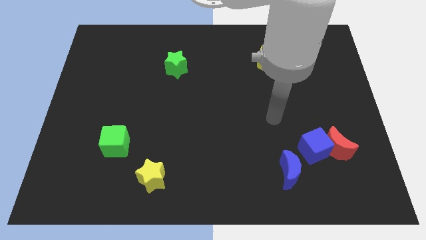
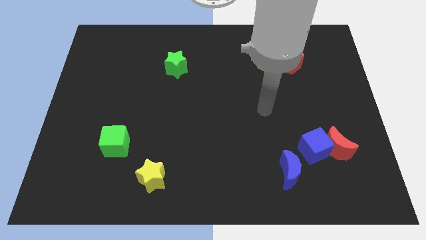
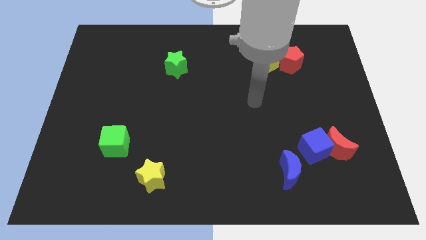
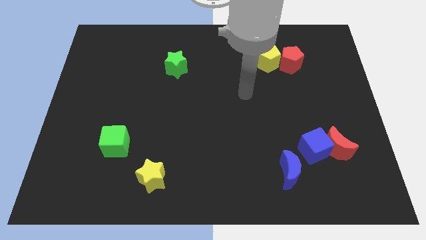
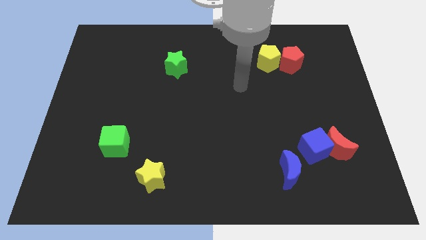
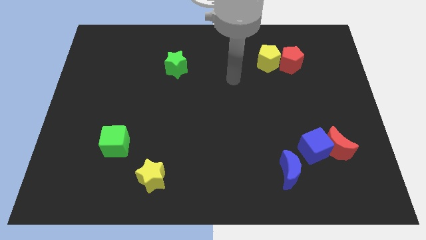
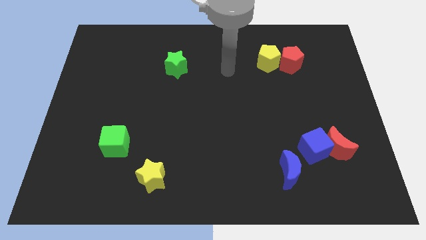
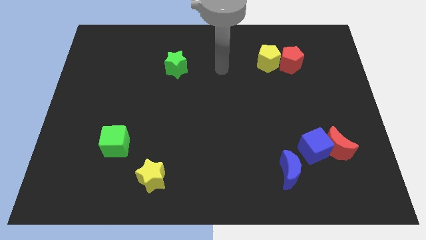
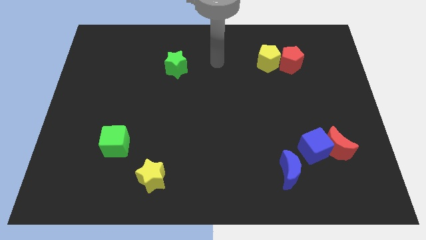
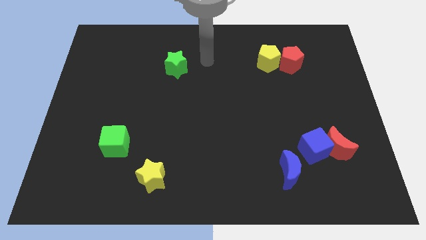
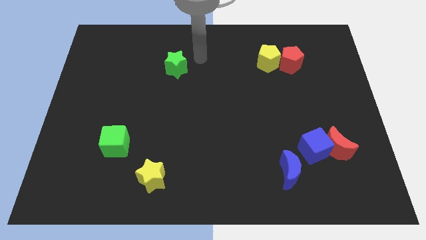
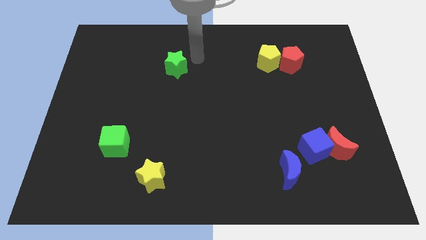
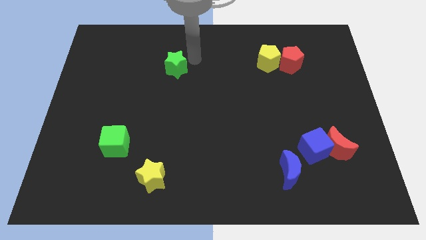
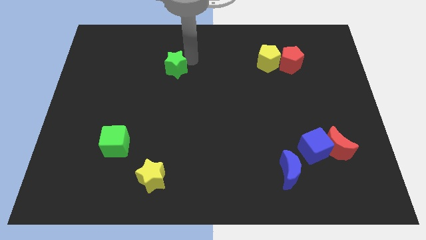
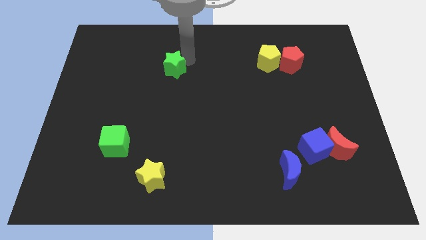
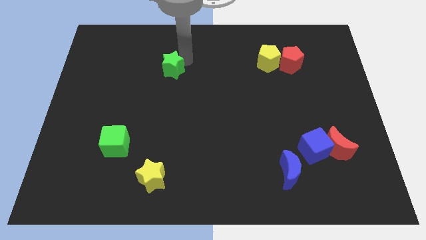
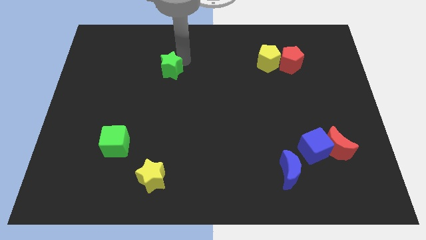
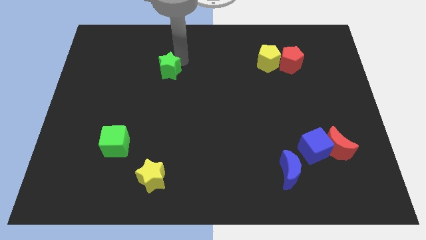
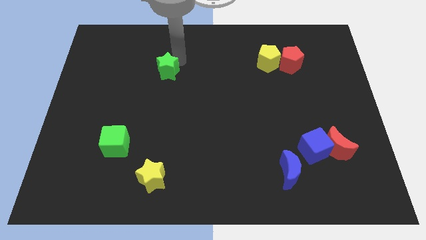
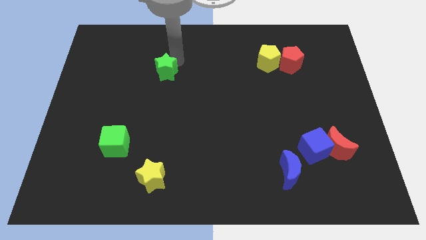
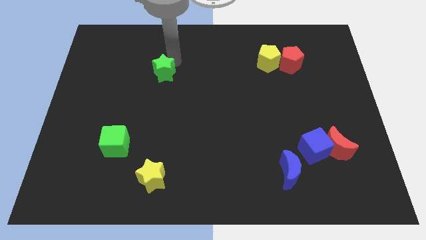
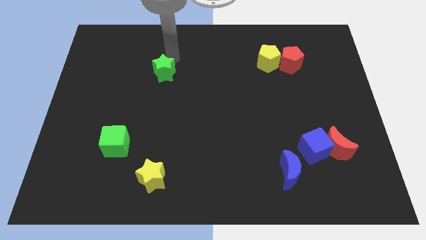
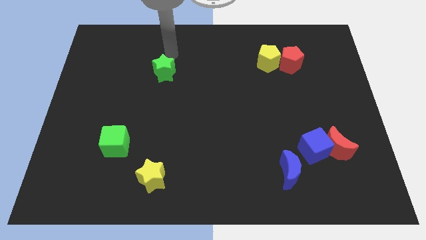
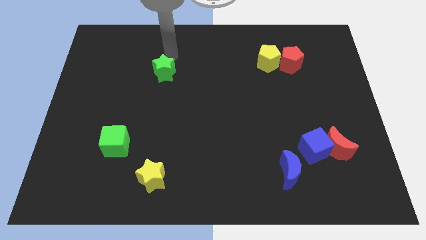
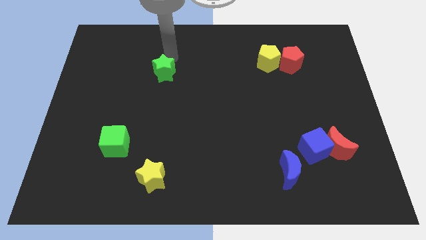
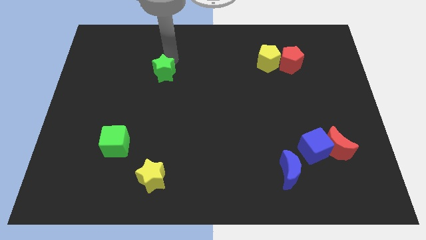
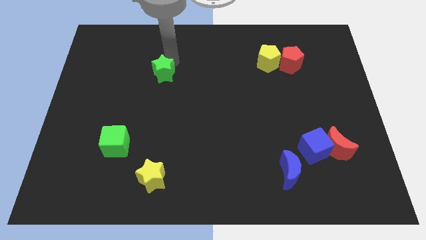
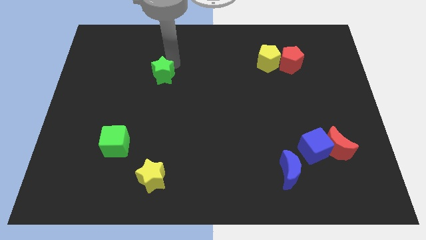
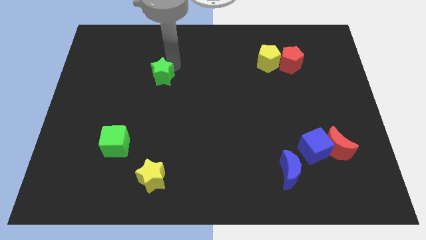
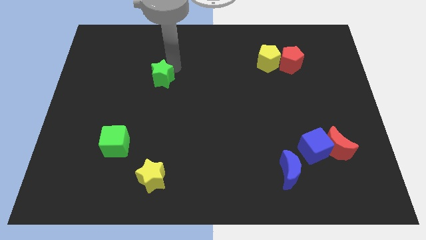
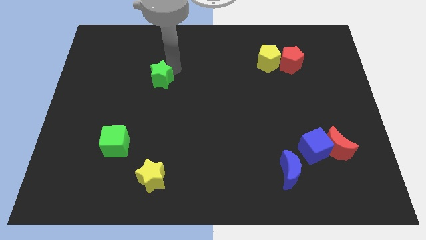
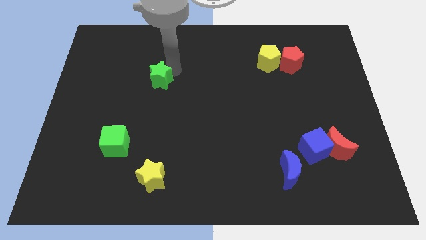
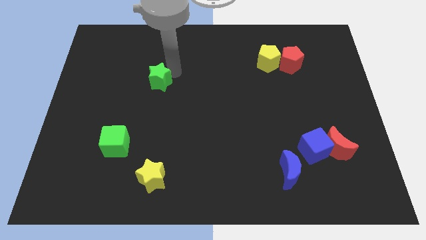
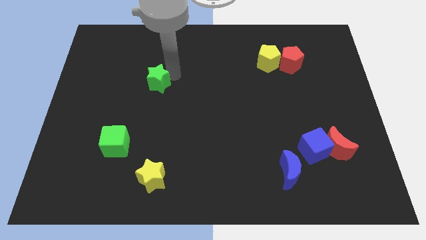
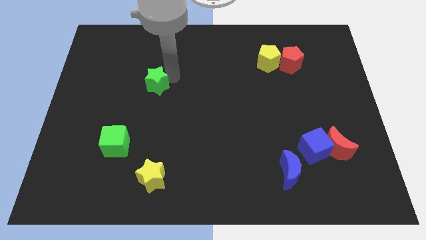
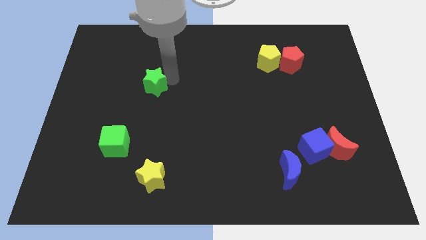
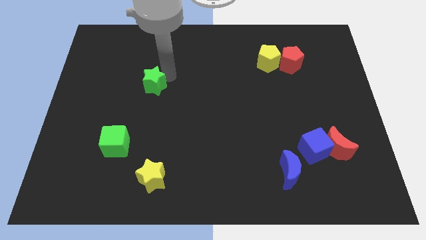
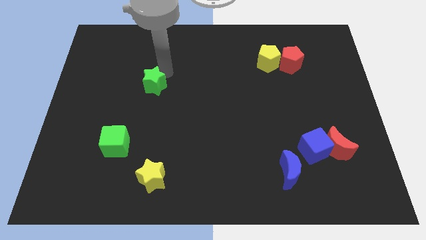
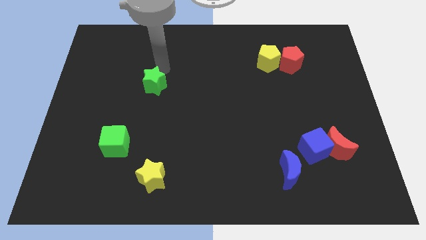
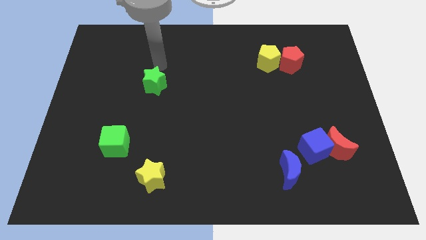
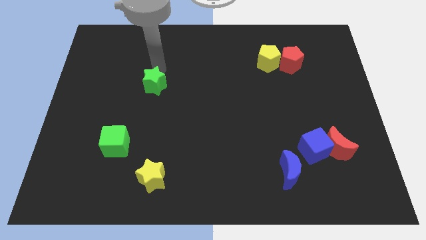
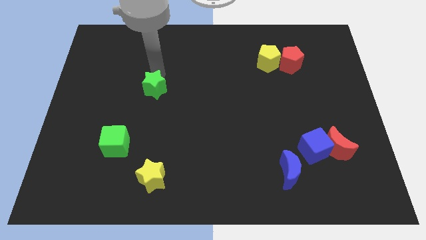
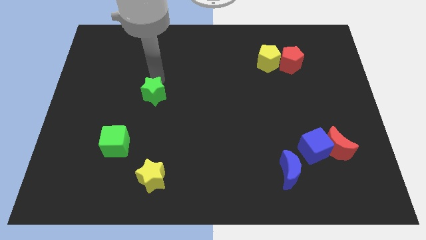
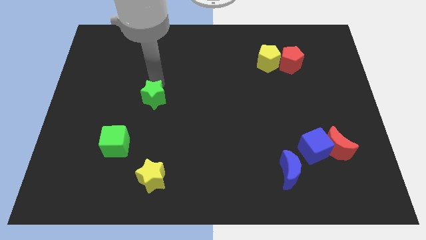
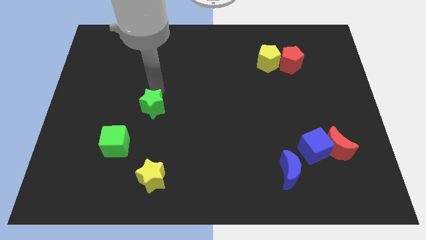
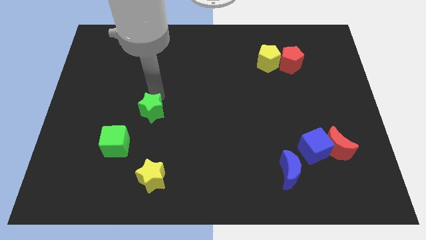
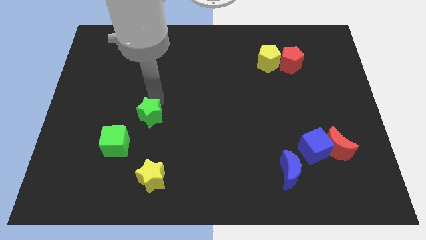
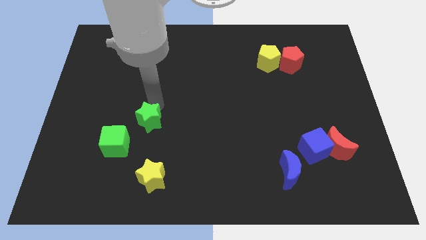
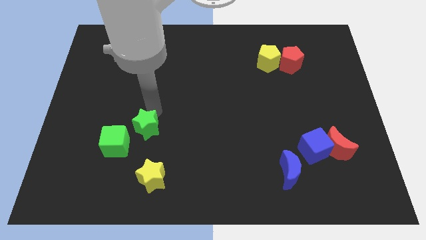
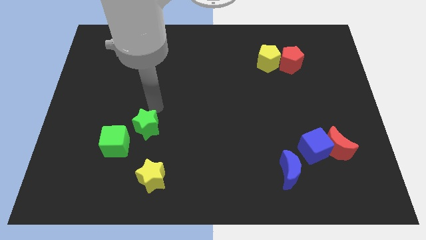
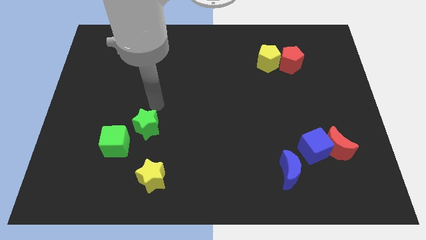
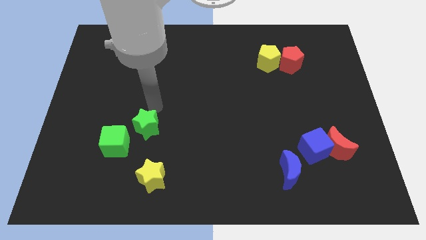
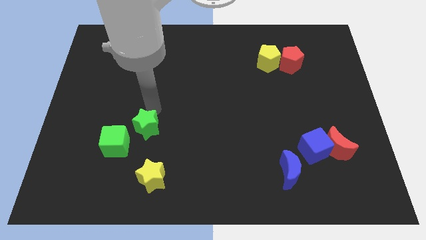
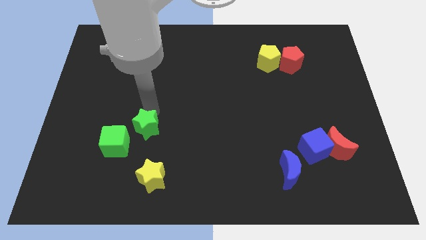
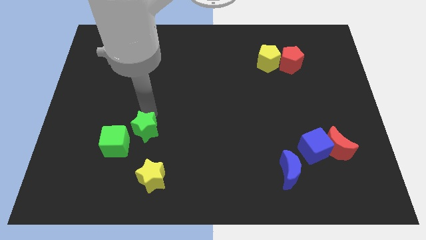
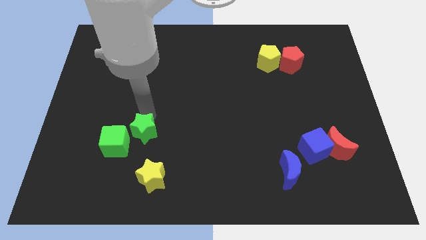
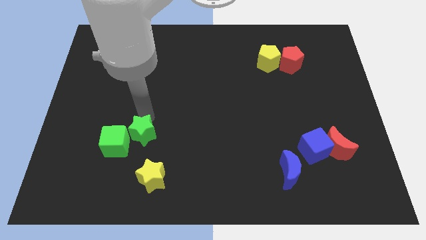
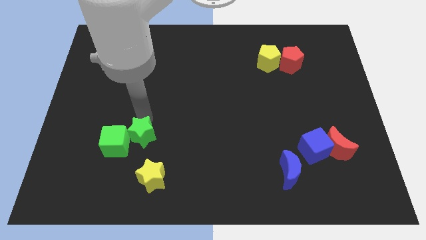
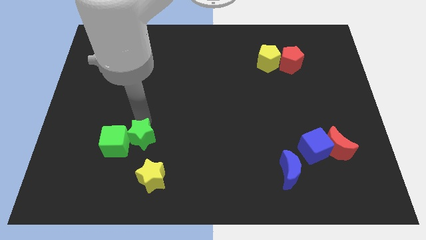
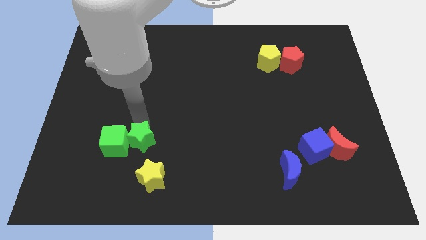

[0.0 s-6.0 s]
push the green star to the bottom right side of the green cube

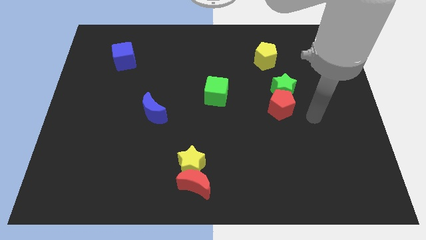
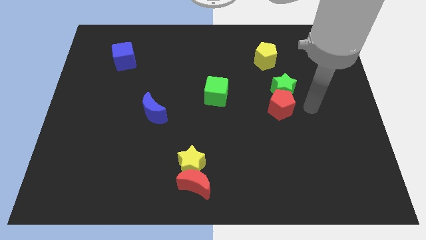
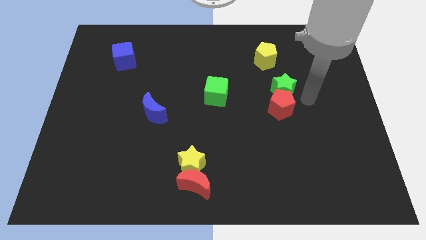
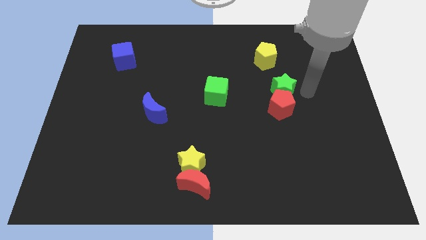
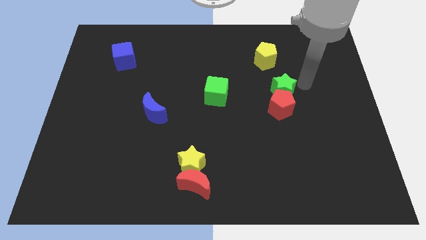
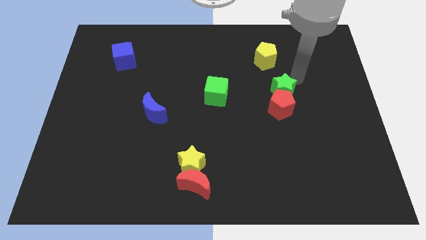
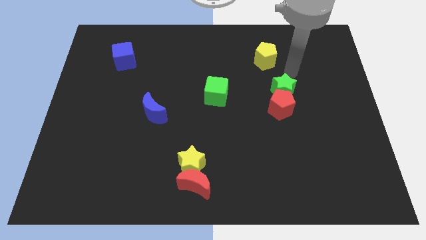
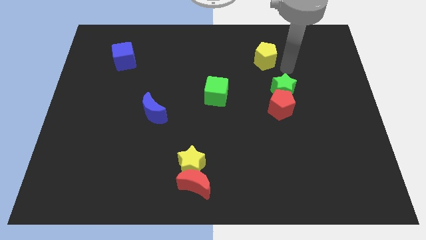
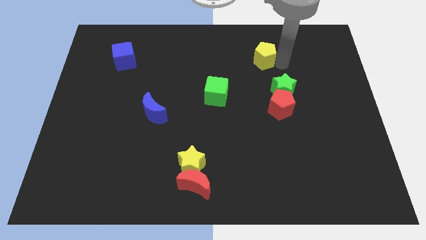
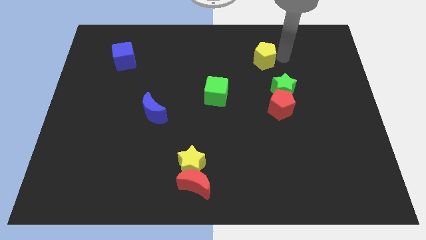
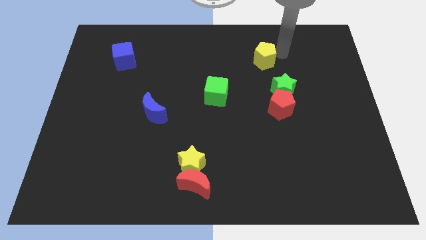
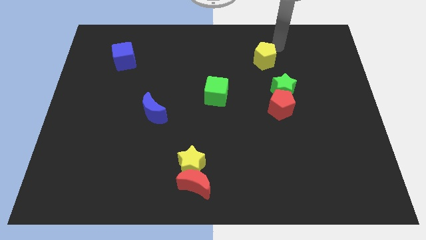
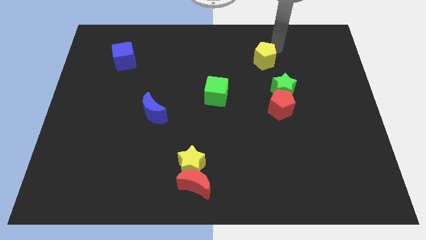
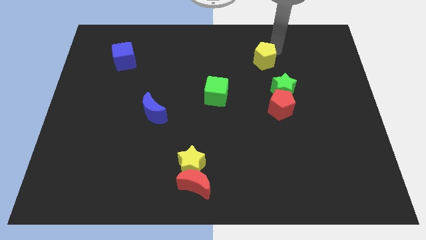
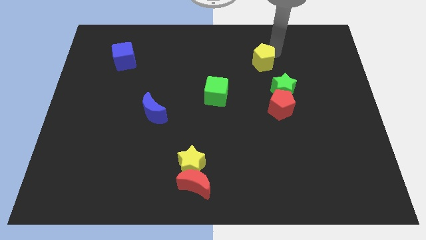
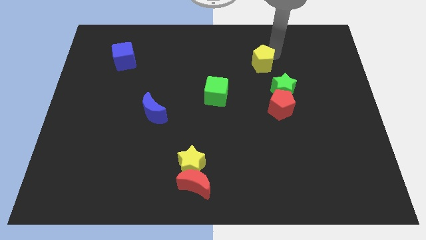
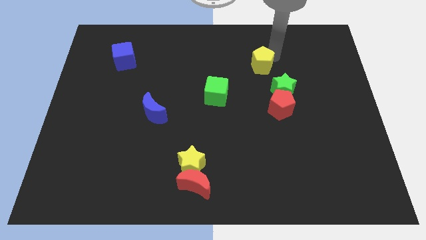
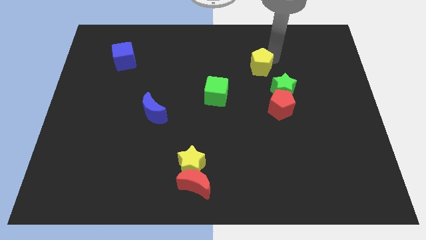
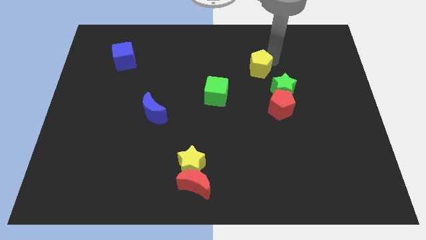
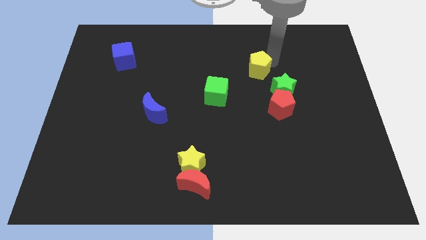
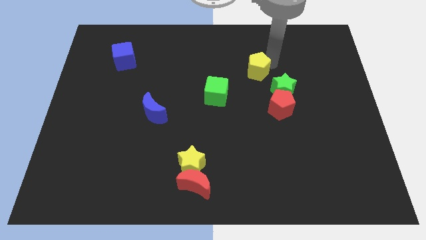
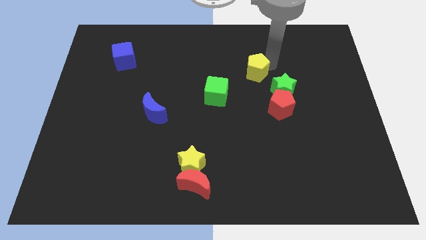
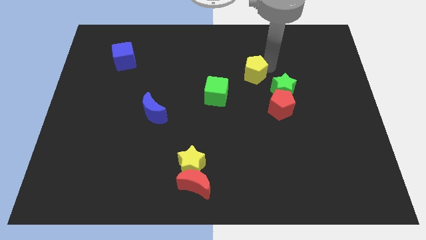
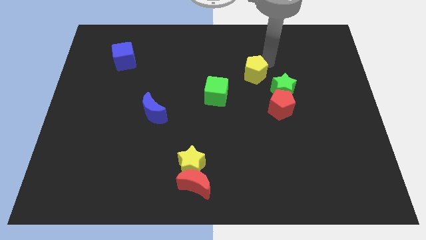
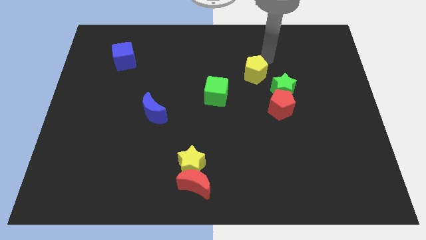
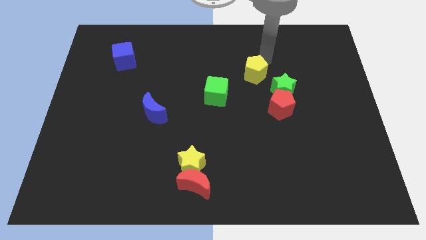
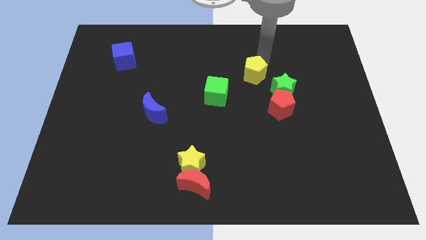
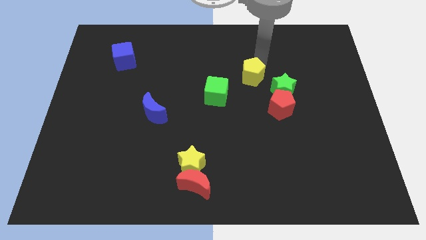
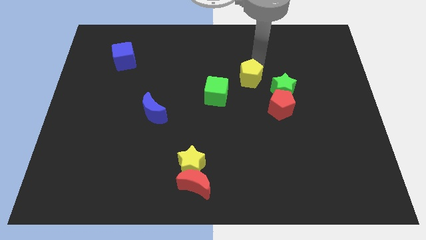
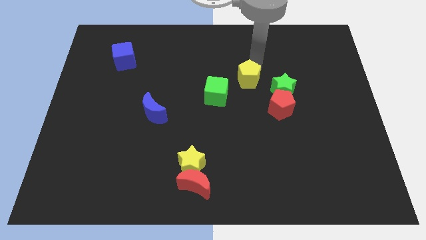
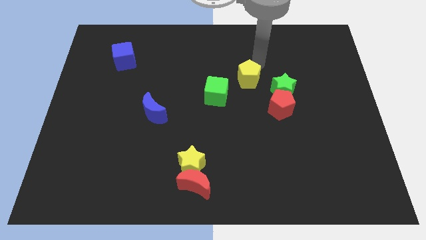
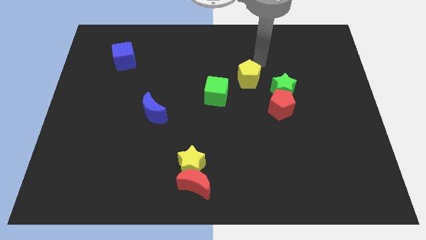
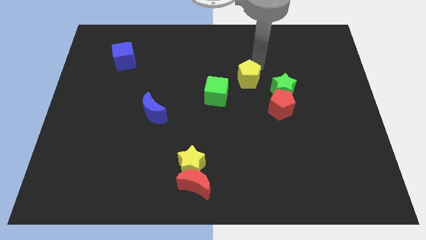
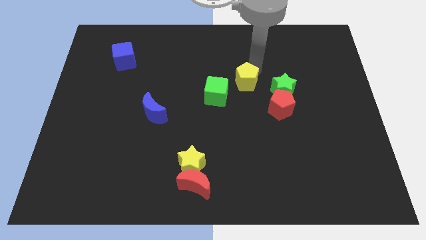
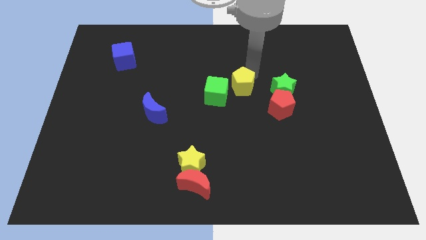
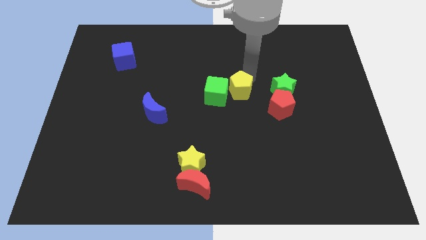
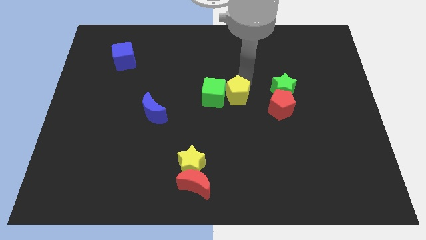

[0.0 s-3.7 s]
slide the yellow pentagon to the bottom right side of the green cube
